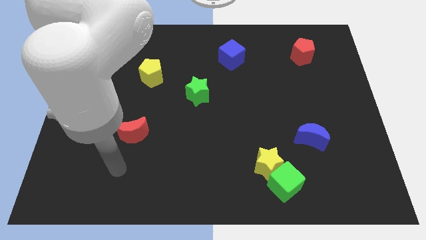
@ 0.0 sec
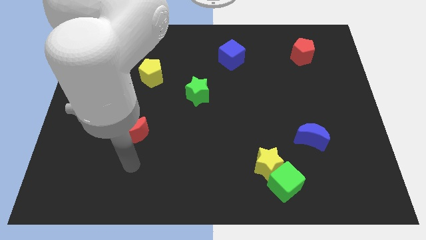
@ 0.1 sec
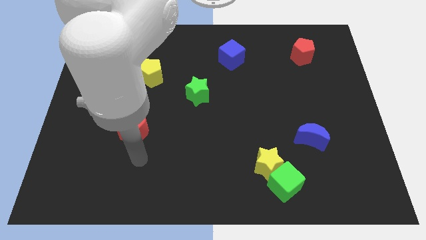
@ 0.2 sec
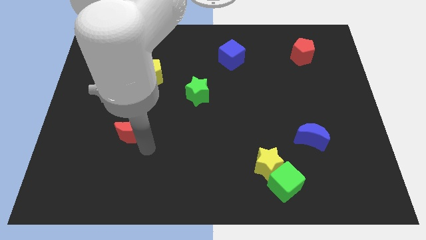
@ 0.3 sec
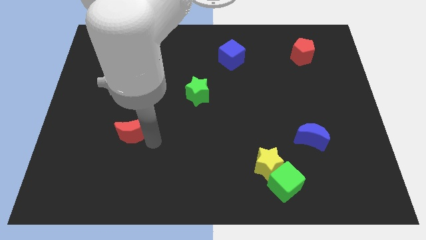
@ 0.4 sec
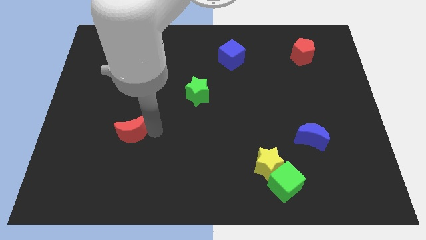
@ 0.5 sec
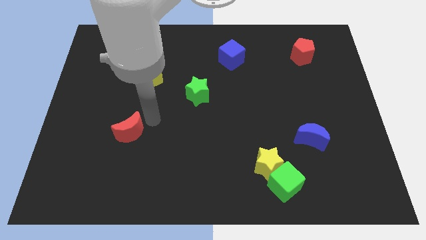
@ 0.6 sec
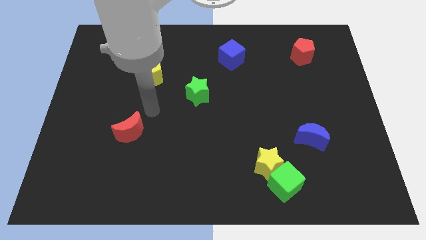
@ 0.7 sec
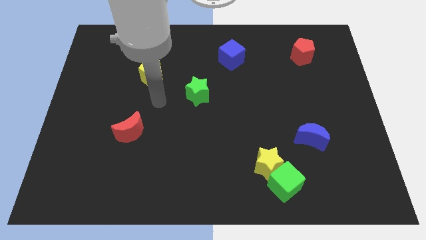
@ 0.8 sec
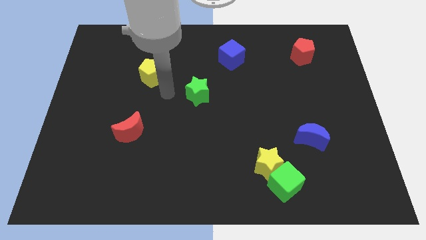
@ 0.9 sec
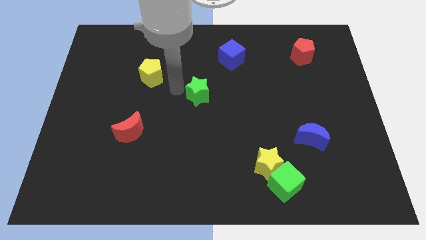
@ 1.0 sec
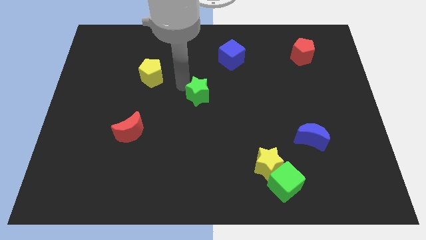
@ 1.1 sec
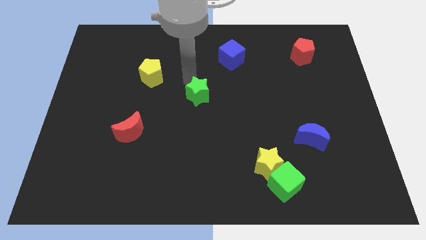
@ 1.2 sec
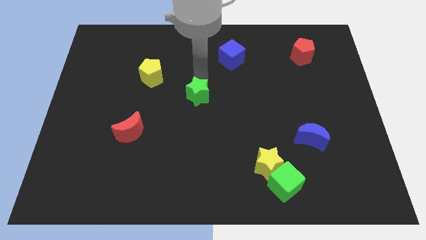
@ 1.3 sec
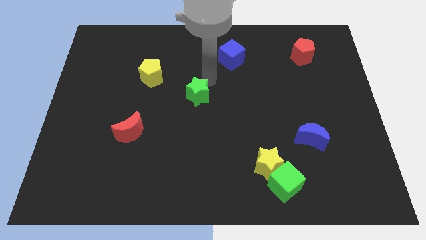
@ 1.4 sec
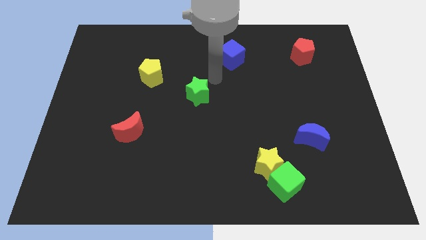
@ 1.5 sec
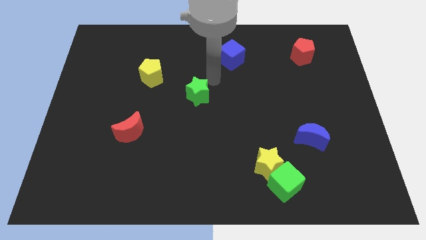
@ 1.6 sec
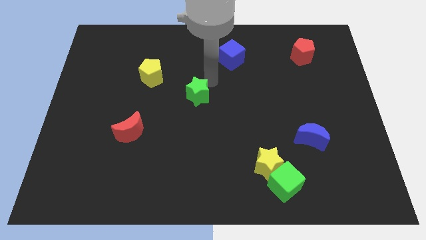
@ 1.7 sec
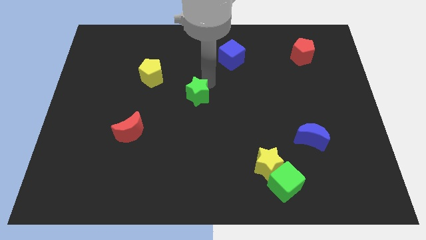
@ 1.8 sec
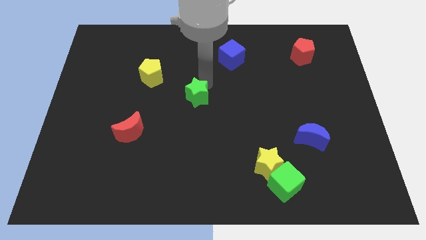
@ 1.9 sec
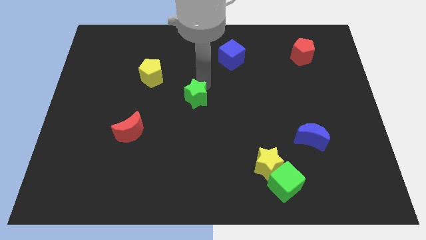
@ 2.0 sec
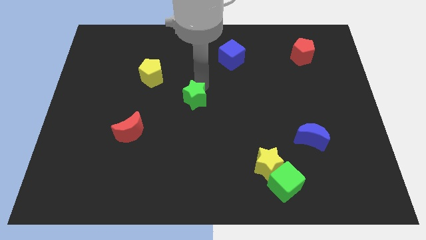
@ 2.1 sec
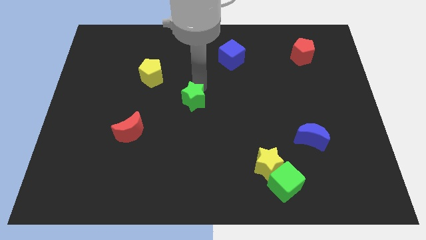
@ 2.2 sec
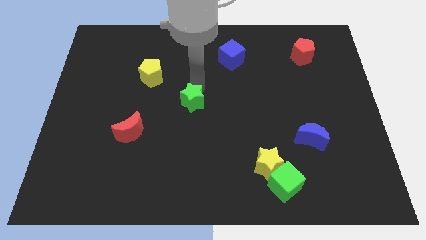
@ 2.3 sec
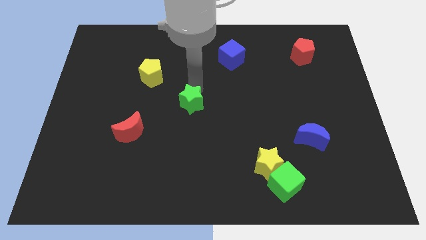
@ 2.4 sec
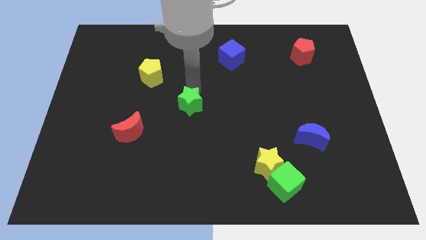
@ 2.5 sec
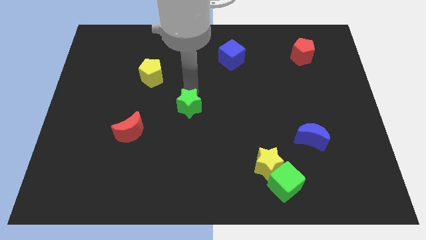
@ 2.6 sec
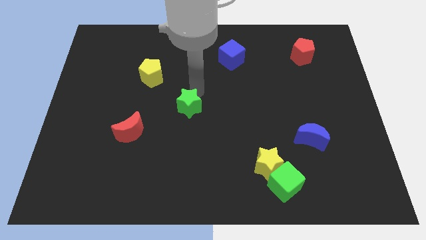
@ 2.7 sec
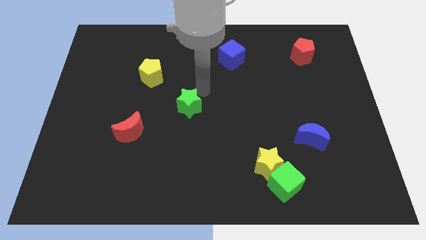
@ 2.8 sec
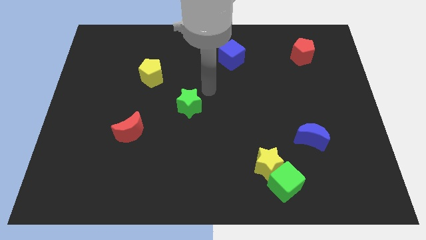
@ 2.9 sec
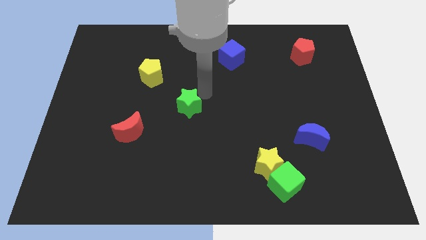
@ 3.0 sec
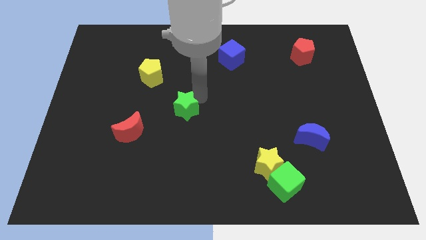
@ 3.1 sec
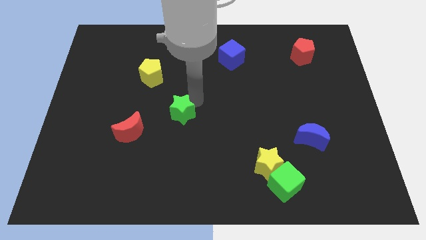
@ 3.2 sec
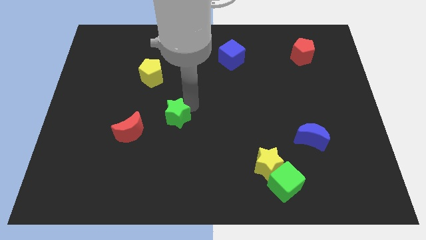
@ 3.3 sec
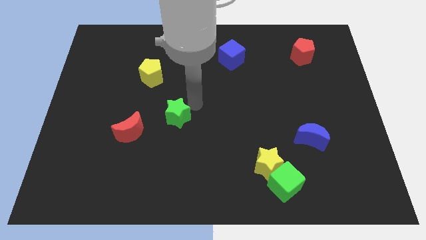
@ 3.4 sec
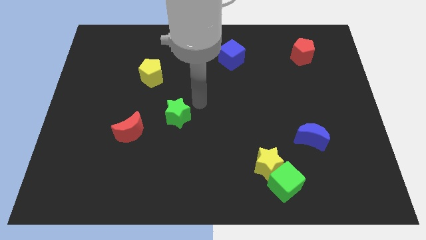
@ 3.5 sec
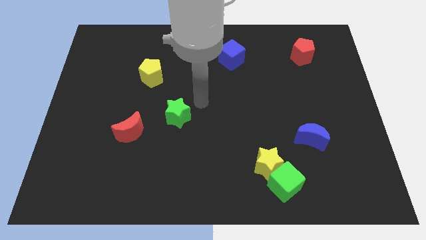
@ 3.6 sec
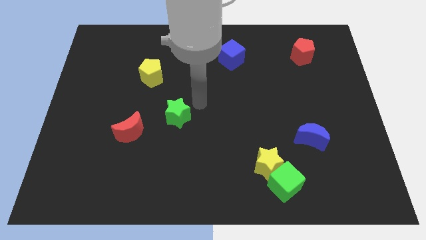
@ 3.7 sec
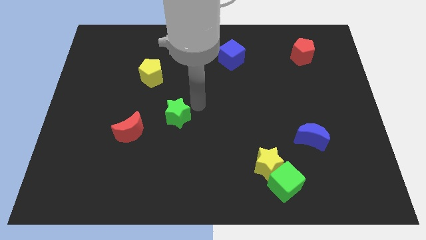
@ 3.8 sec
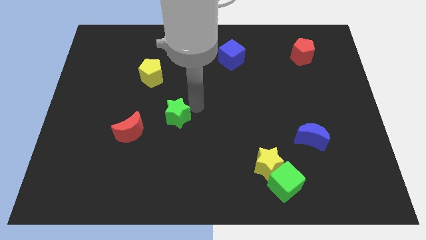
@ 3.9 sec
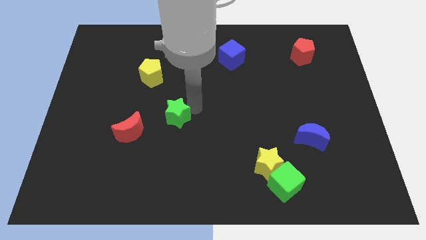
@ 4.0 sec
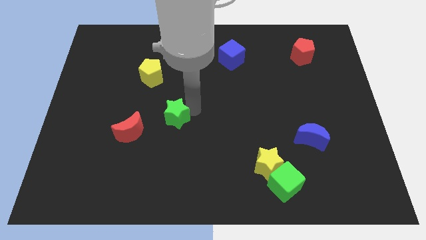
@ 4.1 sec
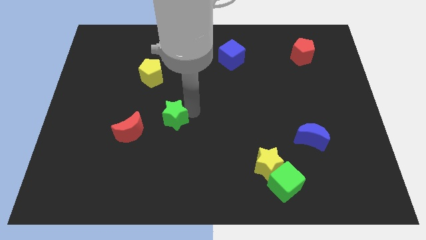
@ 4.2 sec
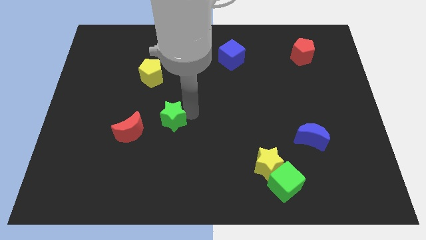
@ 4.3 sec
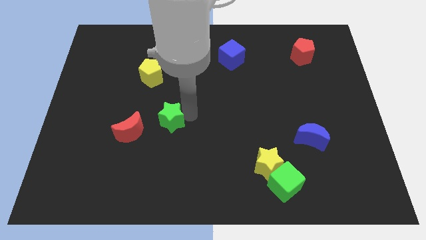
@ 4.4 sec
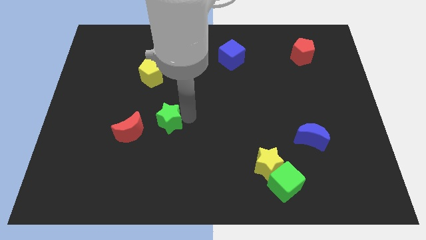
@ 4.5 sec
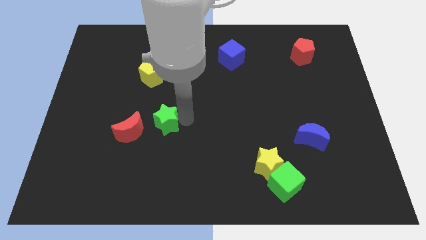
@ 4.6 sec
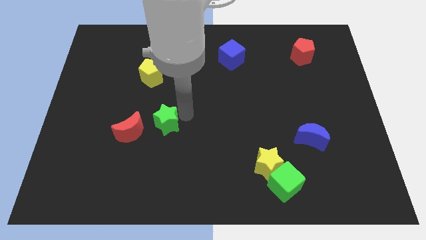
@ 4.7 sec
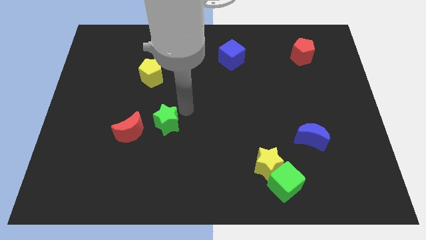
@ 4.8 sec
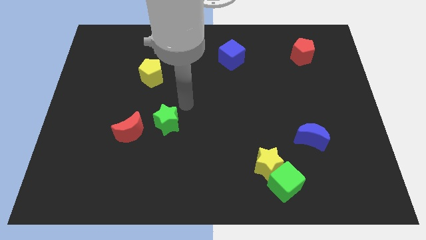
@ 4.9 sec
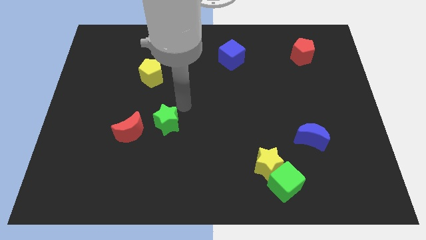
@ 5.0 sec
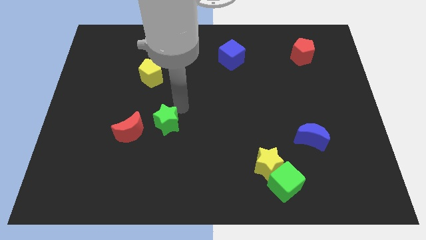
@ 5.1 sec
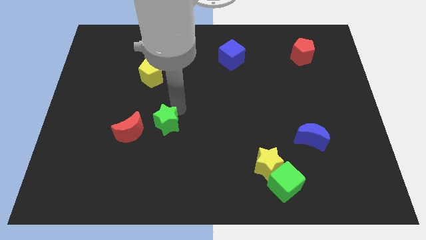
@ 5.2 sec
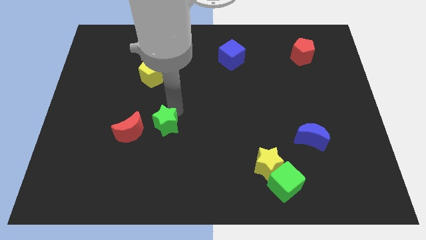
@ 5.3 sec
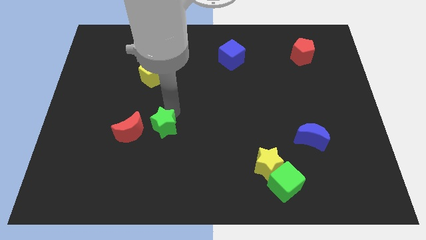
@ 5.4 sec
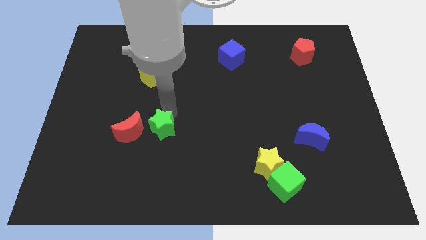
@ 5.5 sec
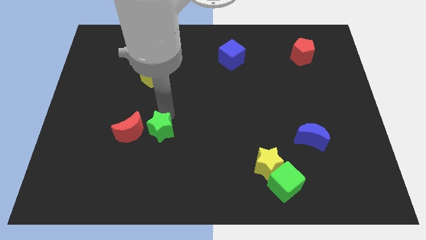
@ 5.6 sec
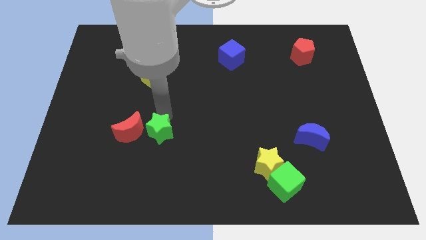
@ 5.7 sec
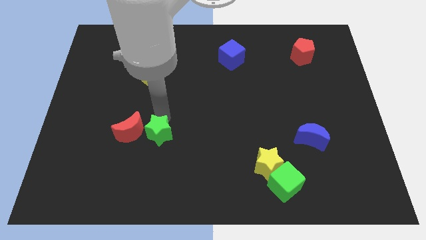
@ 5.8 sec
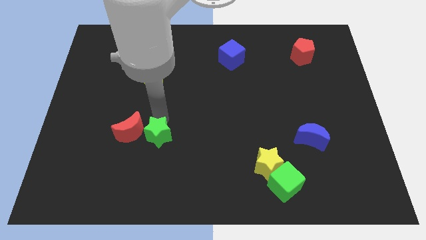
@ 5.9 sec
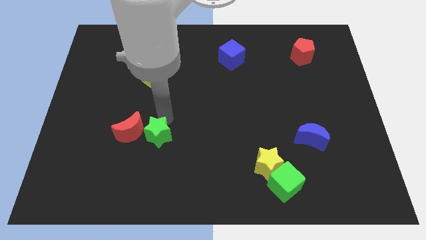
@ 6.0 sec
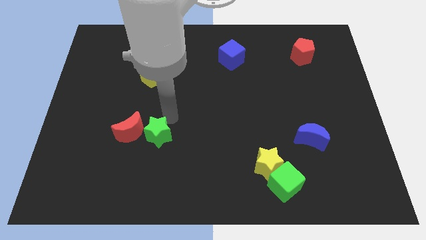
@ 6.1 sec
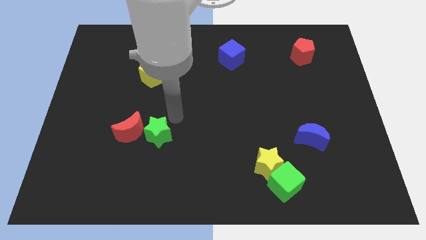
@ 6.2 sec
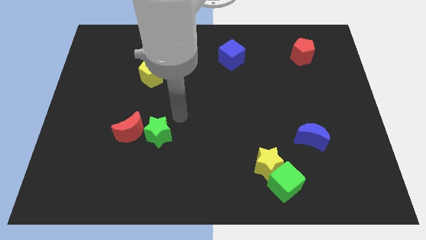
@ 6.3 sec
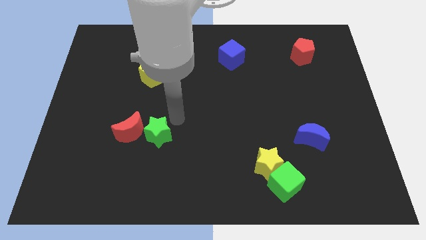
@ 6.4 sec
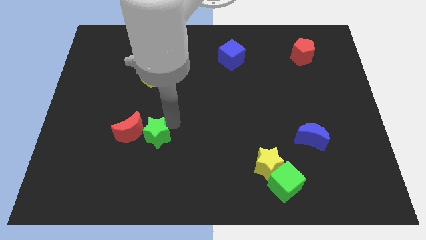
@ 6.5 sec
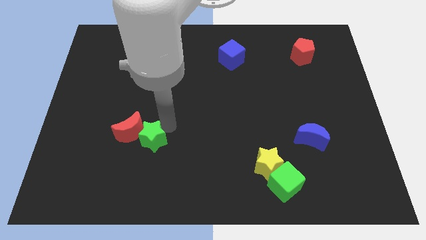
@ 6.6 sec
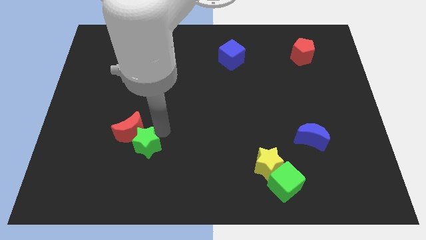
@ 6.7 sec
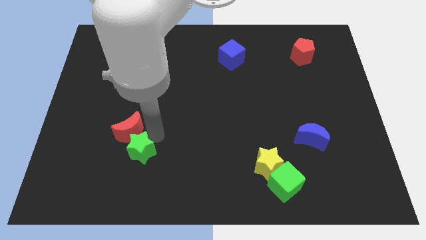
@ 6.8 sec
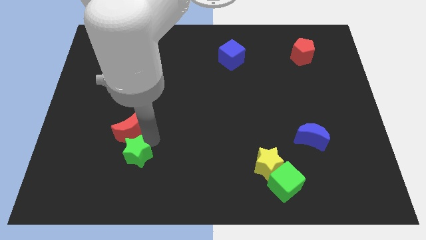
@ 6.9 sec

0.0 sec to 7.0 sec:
slide the green star downwards and then left

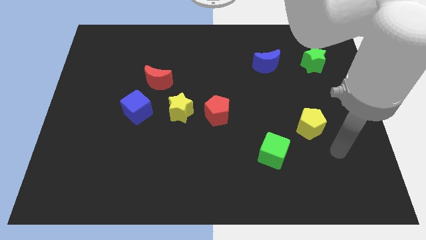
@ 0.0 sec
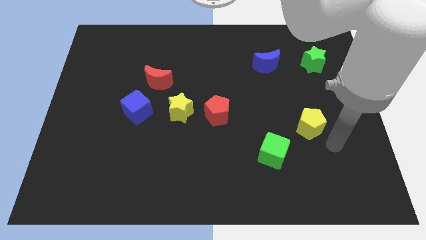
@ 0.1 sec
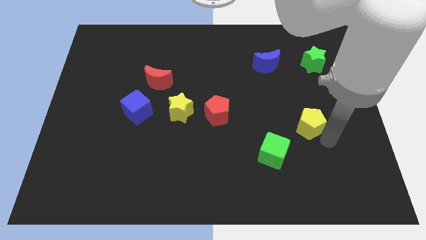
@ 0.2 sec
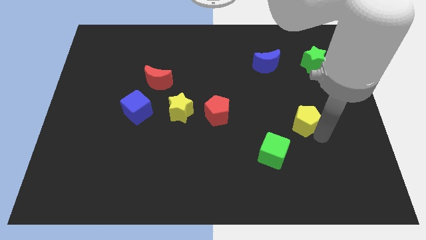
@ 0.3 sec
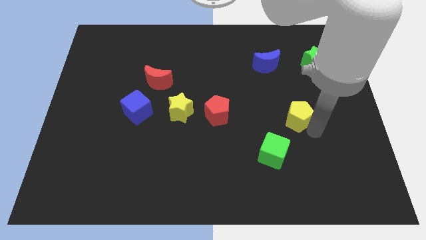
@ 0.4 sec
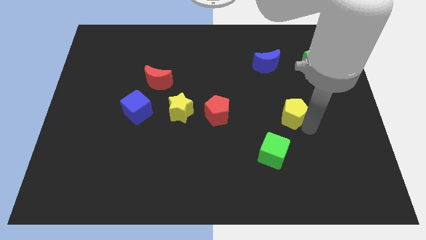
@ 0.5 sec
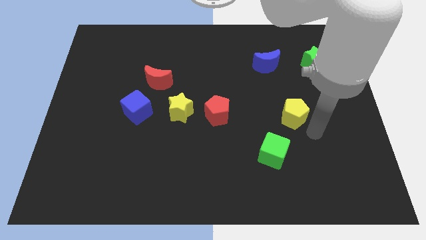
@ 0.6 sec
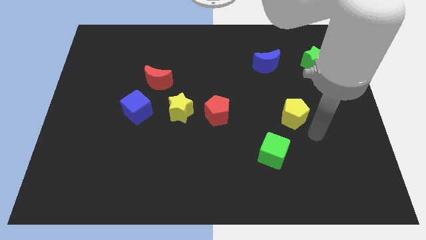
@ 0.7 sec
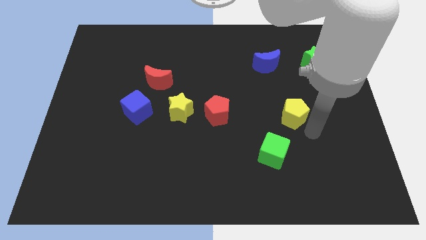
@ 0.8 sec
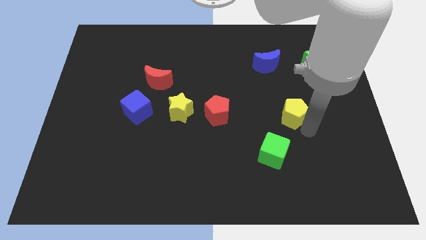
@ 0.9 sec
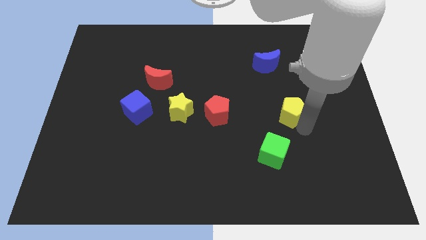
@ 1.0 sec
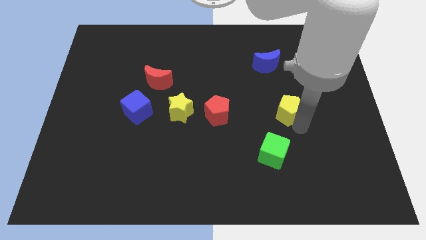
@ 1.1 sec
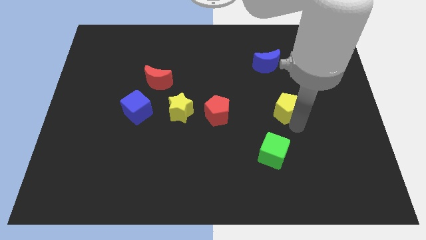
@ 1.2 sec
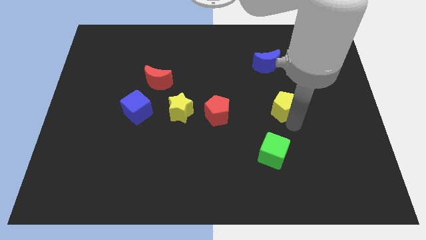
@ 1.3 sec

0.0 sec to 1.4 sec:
push the yellow pentagon upwards and then to the left somewhat
